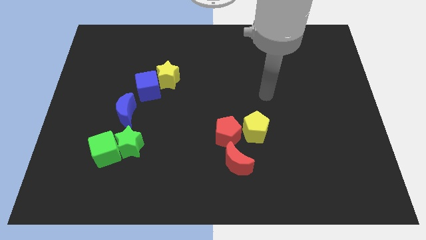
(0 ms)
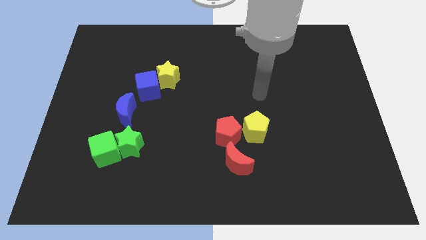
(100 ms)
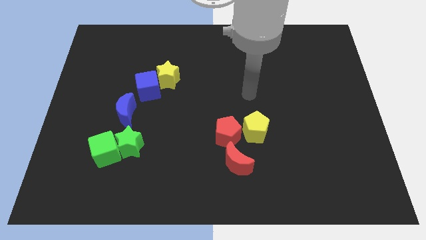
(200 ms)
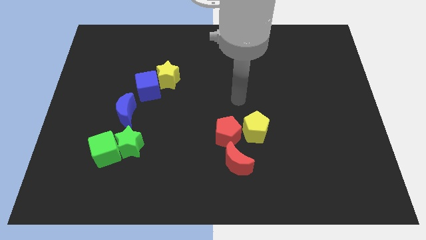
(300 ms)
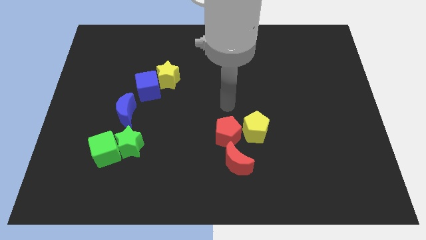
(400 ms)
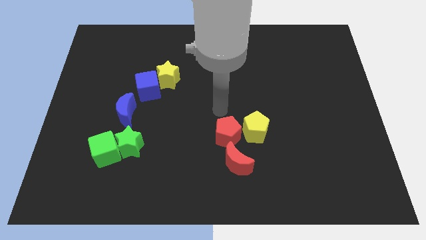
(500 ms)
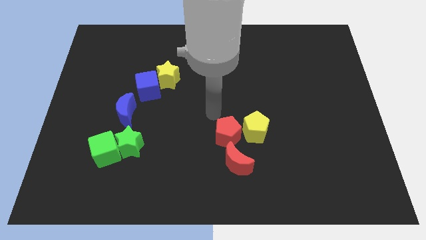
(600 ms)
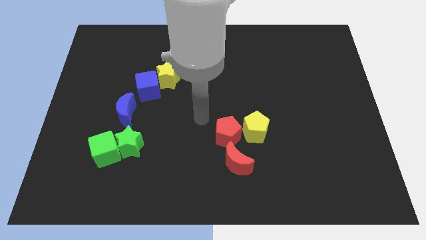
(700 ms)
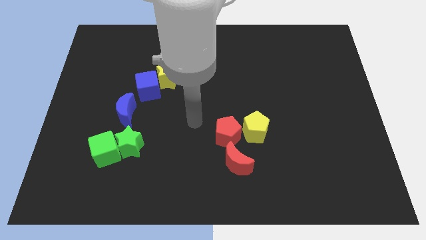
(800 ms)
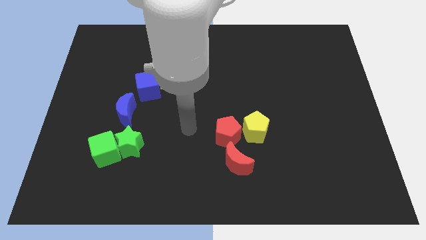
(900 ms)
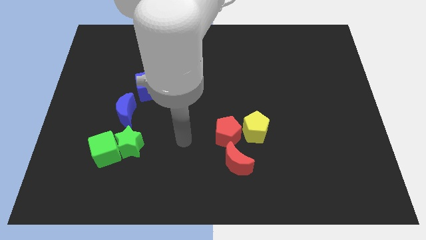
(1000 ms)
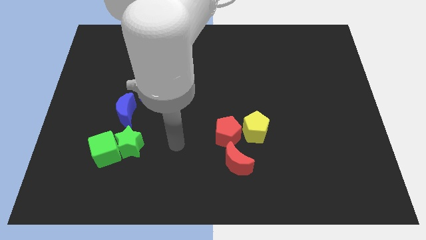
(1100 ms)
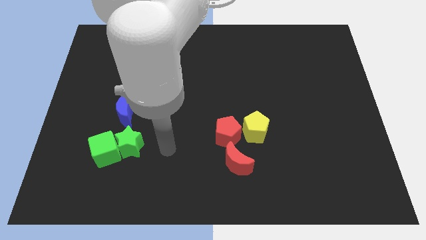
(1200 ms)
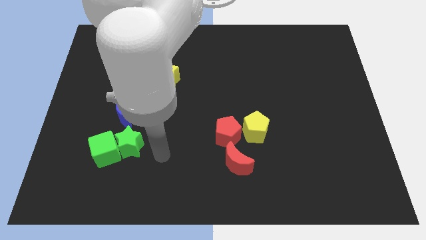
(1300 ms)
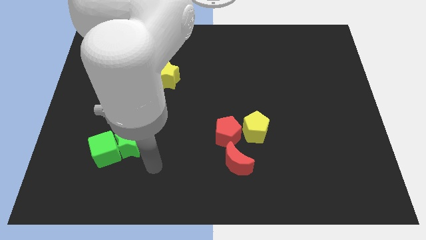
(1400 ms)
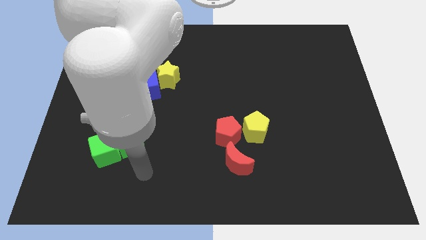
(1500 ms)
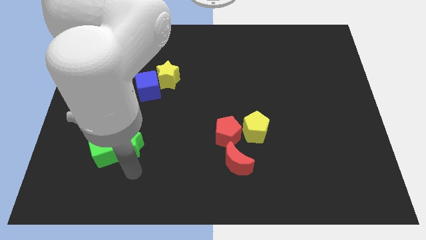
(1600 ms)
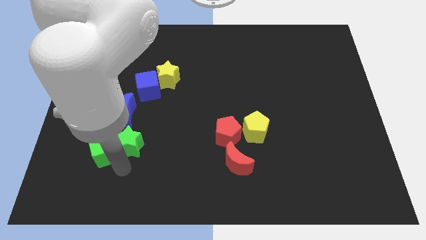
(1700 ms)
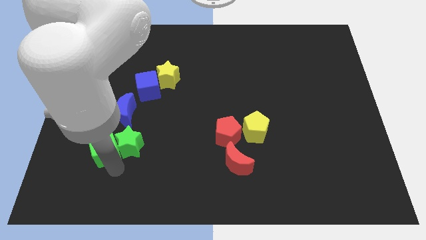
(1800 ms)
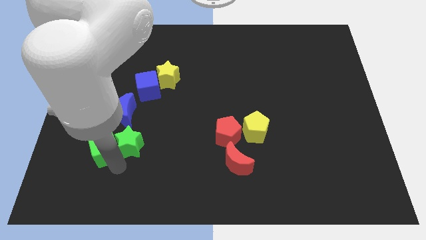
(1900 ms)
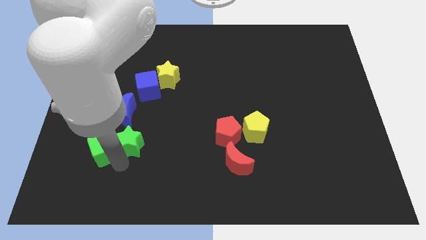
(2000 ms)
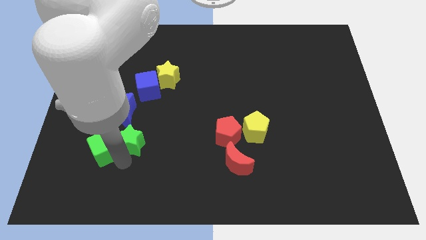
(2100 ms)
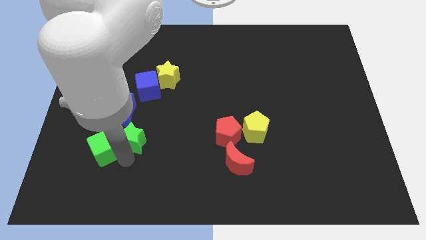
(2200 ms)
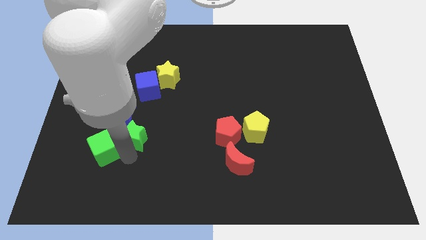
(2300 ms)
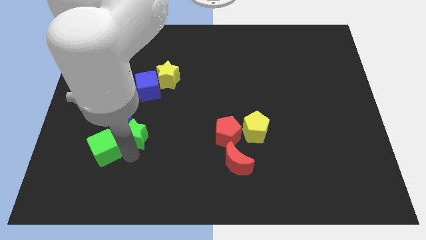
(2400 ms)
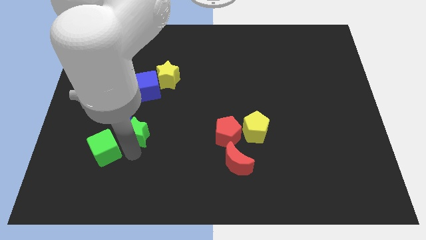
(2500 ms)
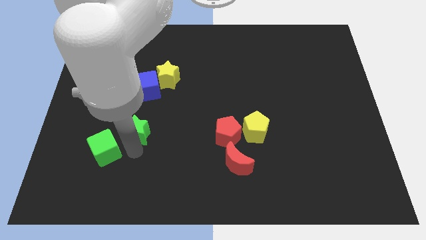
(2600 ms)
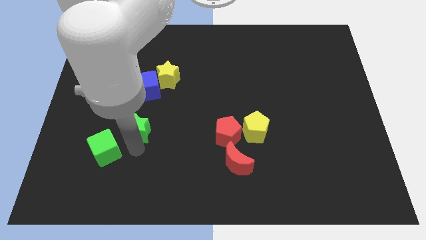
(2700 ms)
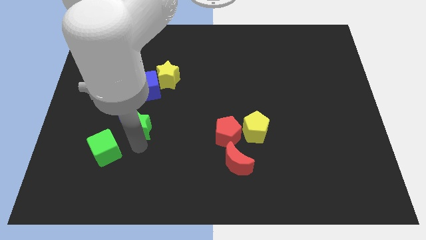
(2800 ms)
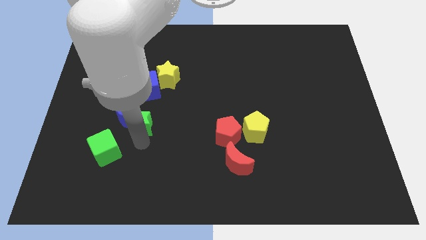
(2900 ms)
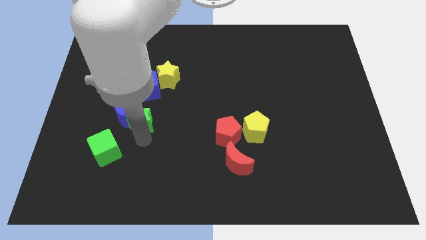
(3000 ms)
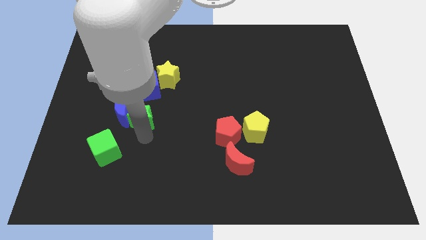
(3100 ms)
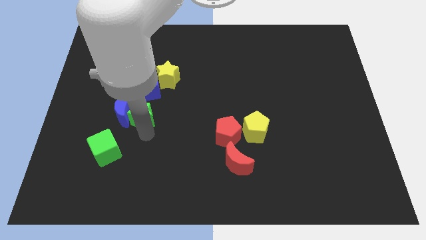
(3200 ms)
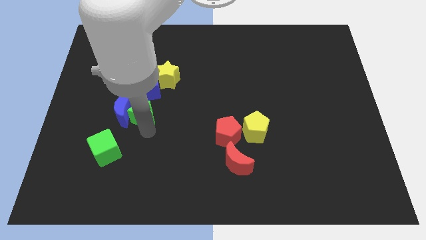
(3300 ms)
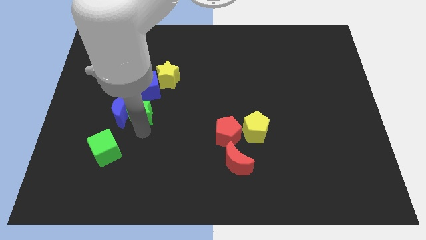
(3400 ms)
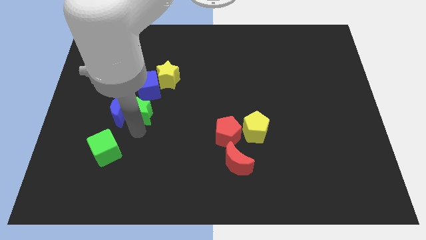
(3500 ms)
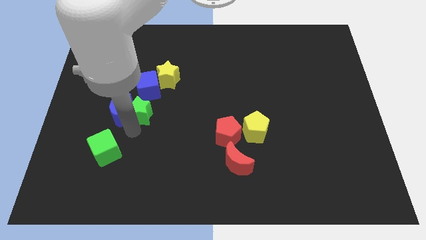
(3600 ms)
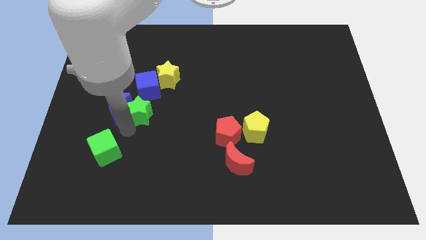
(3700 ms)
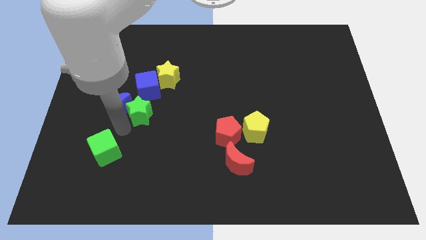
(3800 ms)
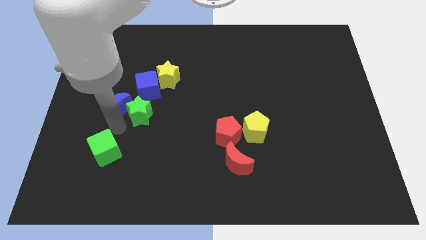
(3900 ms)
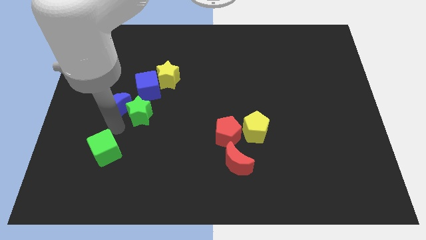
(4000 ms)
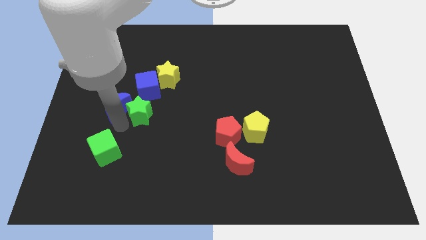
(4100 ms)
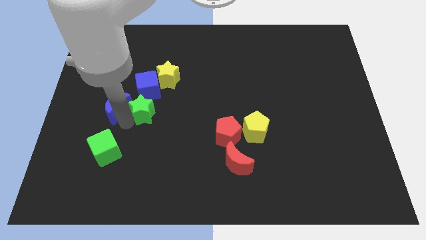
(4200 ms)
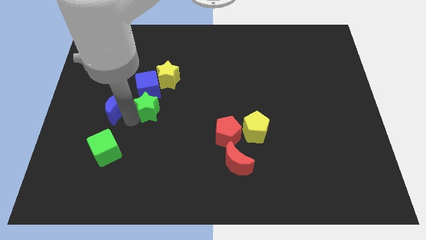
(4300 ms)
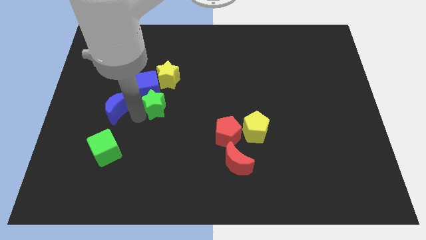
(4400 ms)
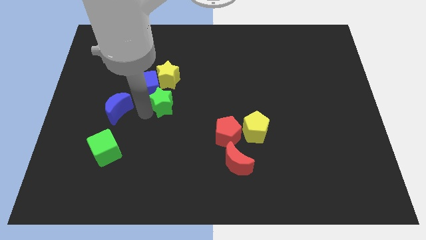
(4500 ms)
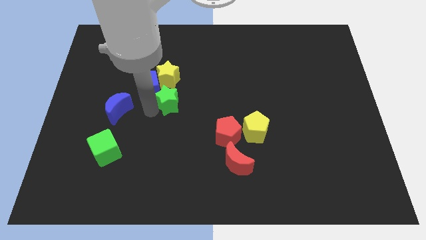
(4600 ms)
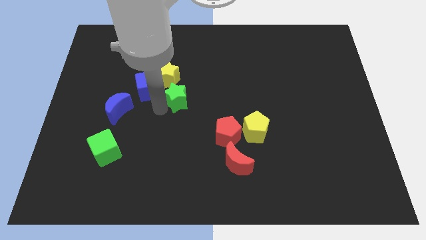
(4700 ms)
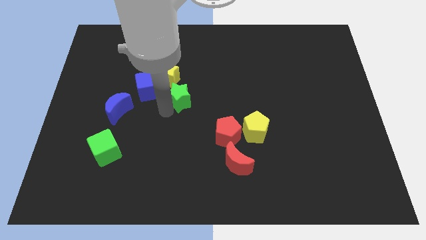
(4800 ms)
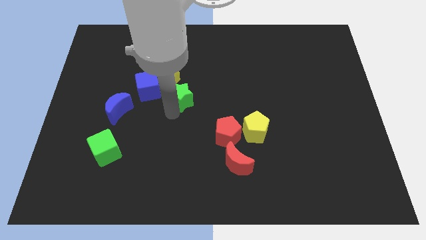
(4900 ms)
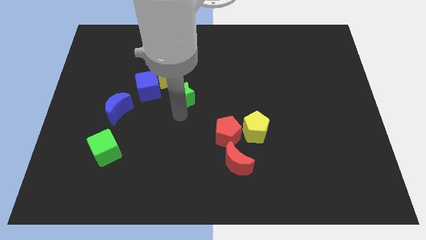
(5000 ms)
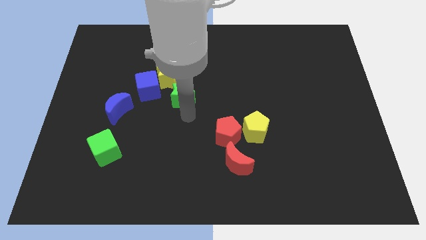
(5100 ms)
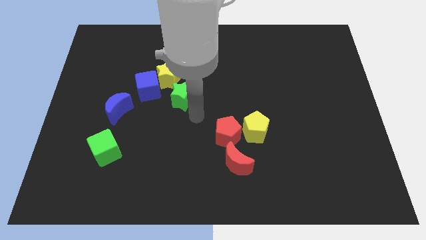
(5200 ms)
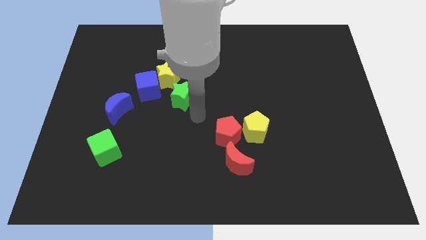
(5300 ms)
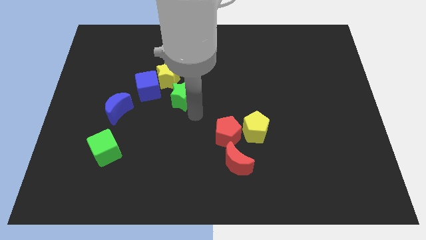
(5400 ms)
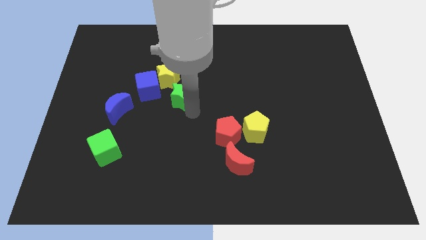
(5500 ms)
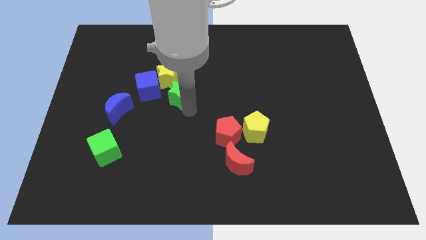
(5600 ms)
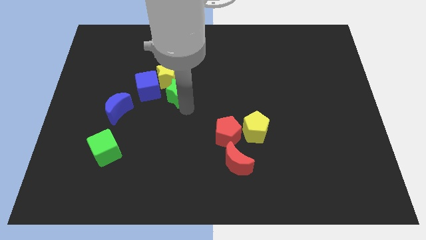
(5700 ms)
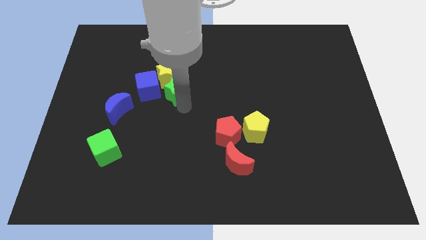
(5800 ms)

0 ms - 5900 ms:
push the green star next to the yellow star

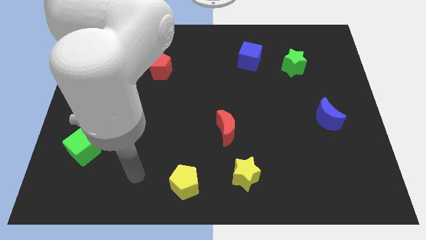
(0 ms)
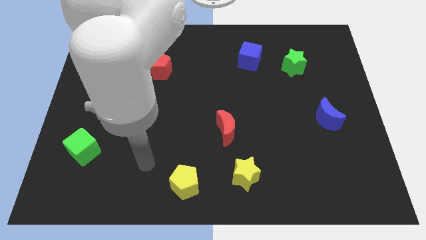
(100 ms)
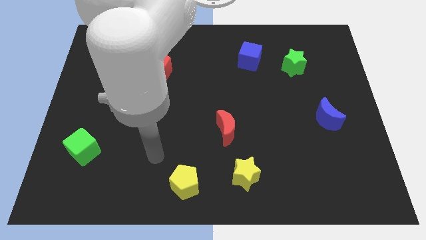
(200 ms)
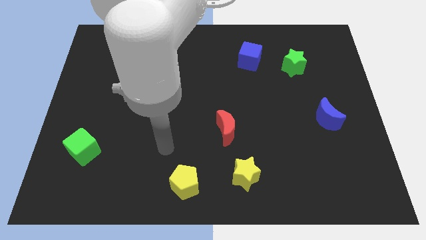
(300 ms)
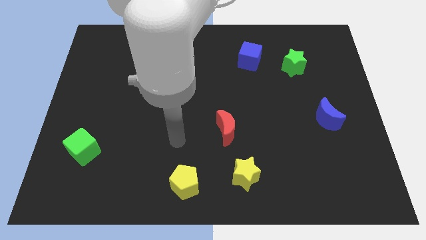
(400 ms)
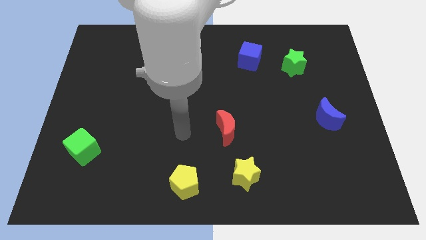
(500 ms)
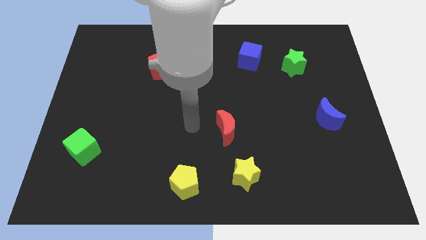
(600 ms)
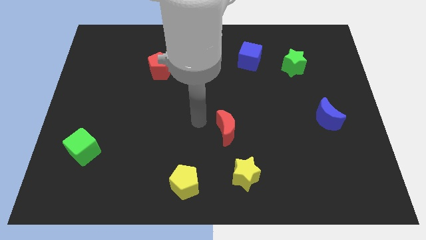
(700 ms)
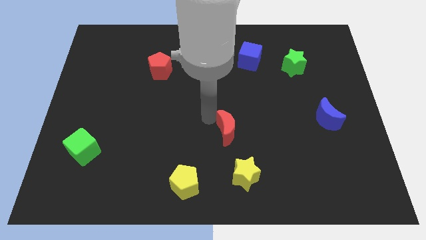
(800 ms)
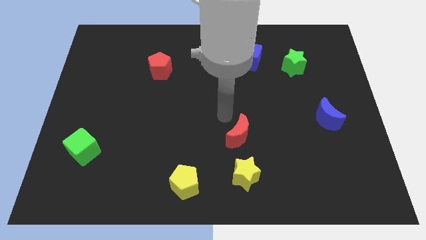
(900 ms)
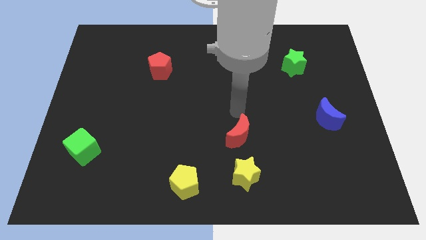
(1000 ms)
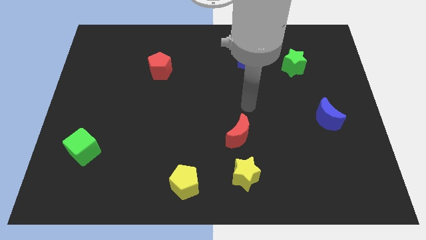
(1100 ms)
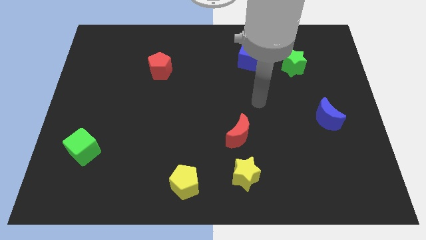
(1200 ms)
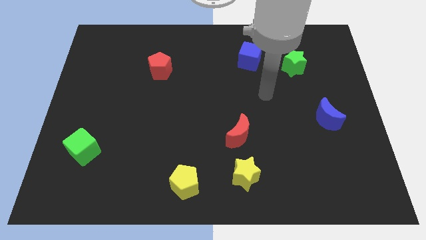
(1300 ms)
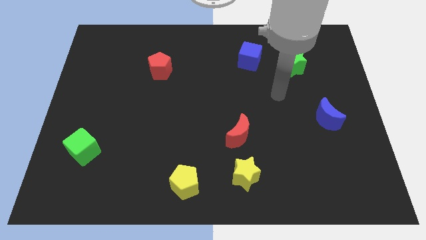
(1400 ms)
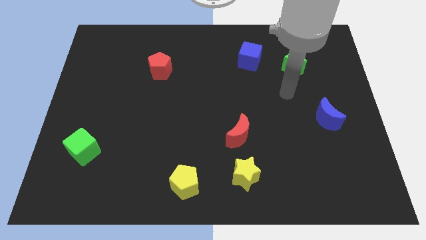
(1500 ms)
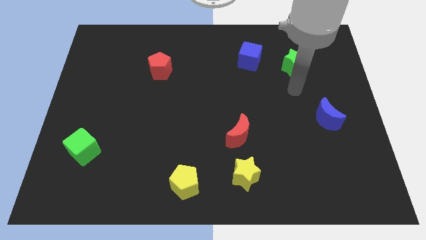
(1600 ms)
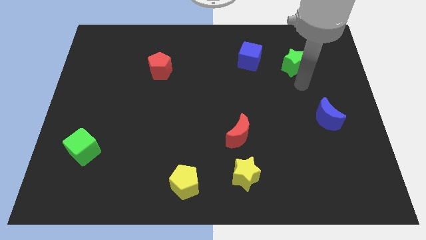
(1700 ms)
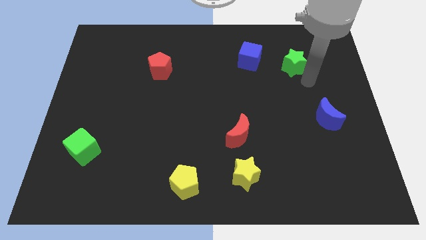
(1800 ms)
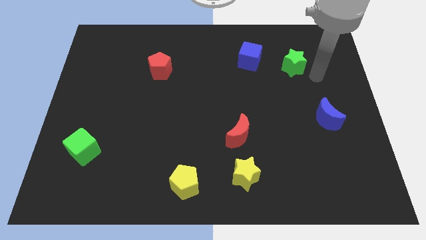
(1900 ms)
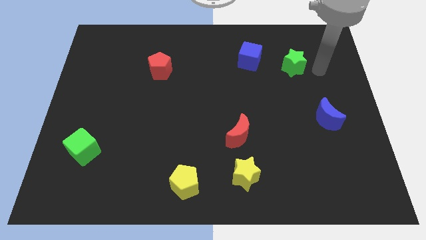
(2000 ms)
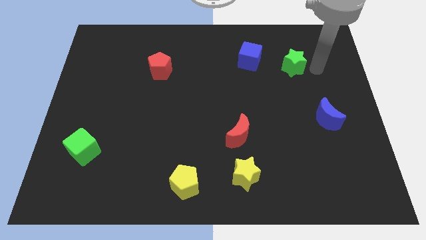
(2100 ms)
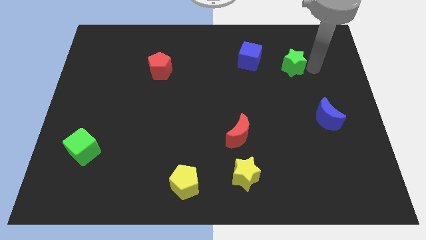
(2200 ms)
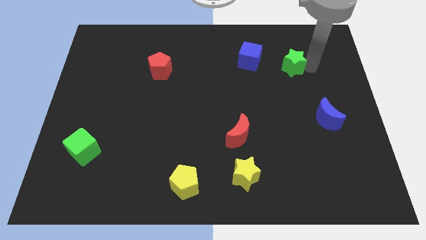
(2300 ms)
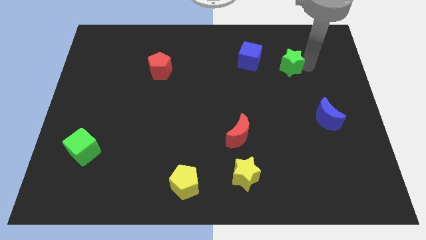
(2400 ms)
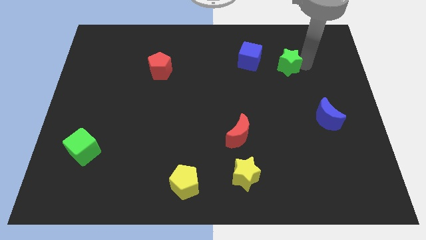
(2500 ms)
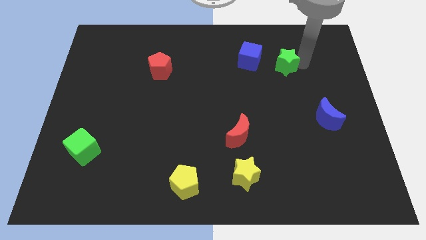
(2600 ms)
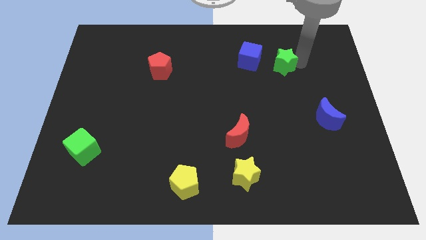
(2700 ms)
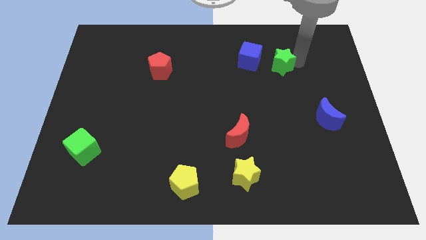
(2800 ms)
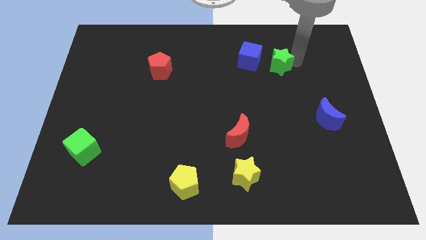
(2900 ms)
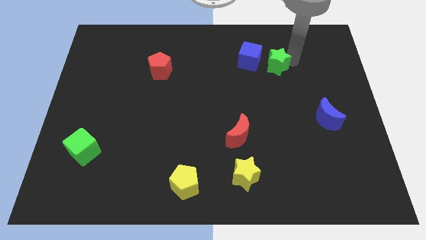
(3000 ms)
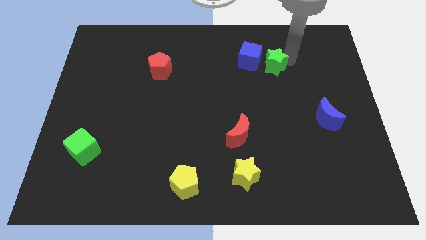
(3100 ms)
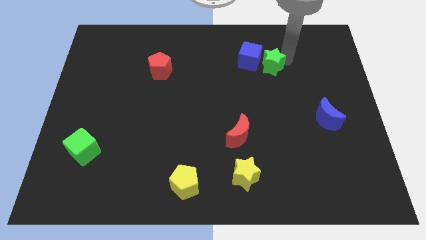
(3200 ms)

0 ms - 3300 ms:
put the green star towards the blue cube
